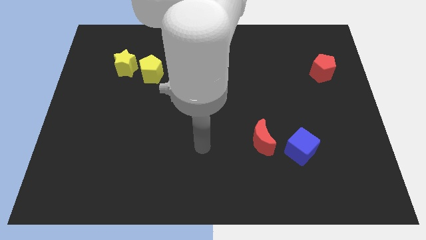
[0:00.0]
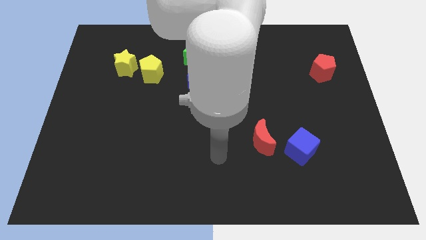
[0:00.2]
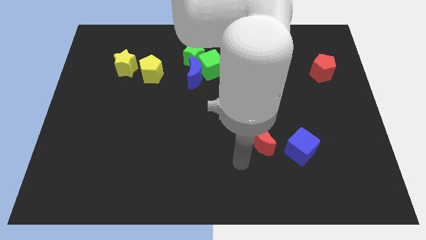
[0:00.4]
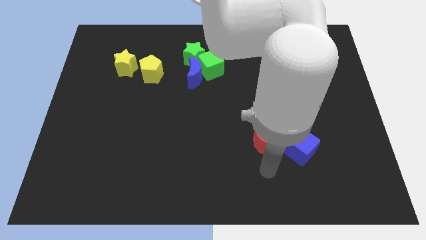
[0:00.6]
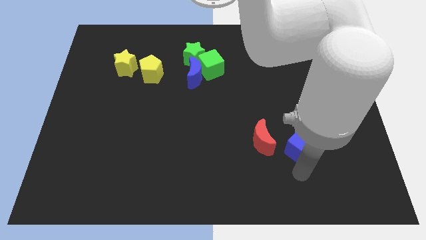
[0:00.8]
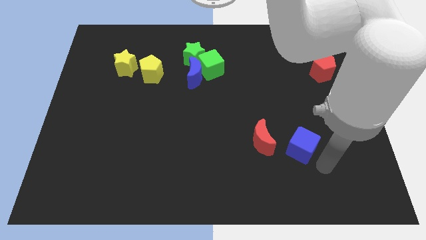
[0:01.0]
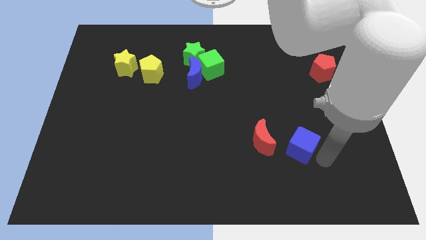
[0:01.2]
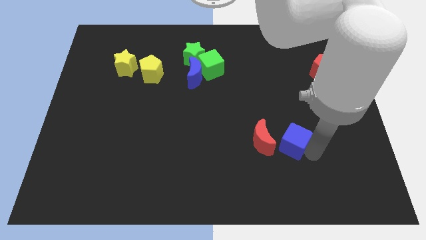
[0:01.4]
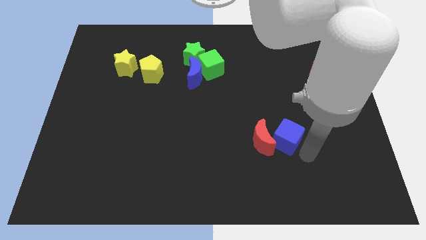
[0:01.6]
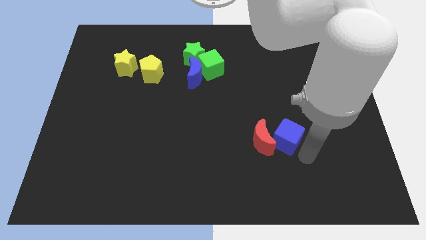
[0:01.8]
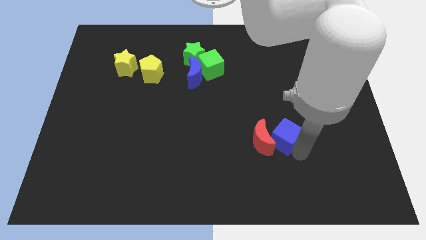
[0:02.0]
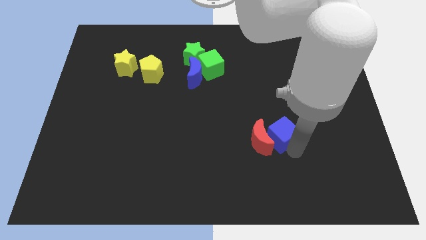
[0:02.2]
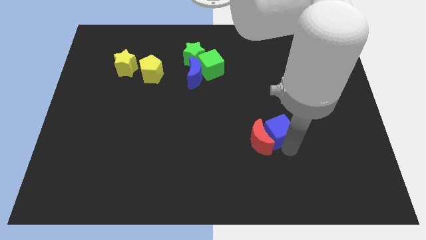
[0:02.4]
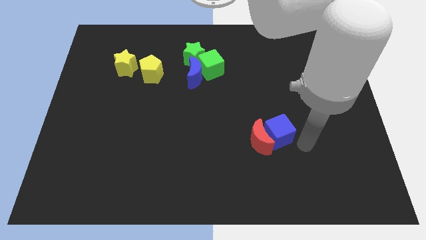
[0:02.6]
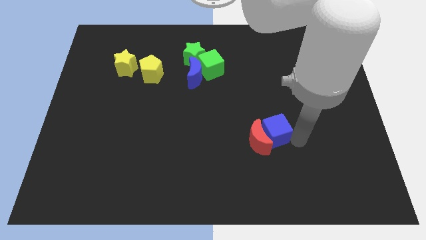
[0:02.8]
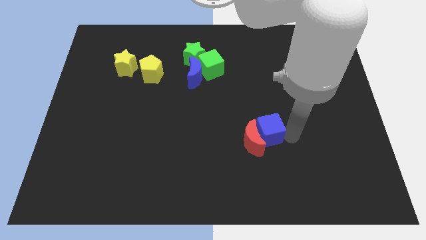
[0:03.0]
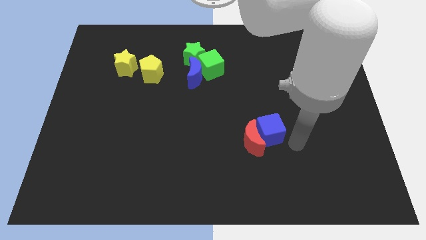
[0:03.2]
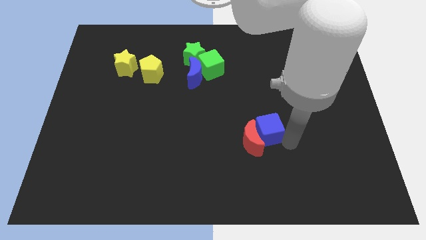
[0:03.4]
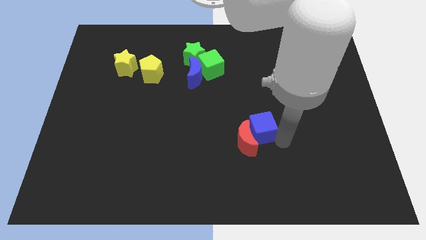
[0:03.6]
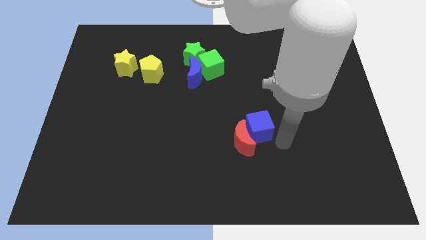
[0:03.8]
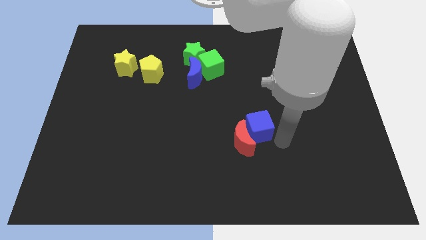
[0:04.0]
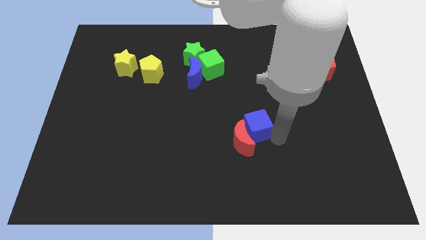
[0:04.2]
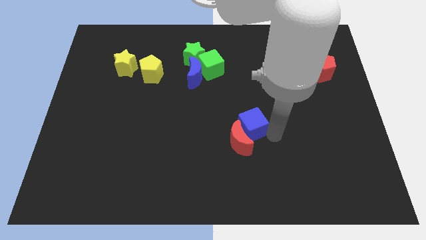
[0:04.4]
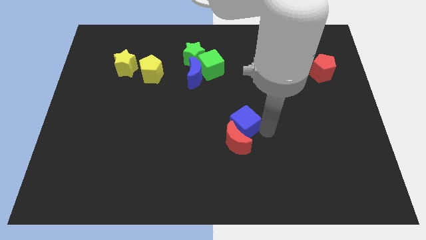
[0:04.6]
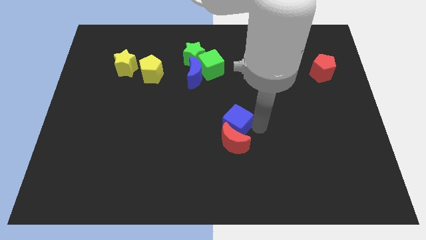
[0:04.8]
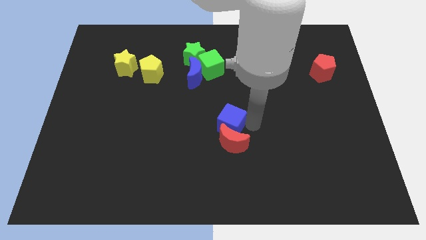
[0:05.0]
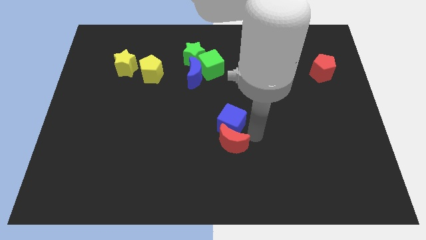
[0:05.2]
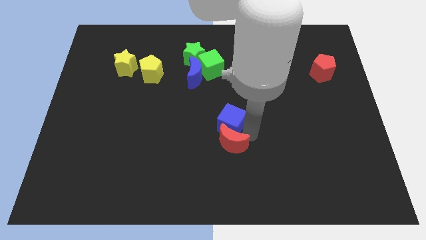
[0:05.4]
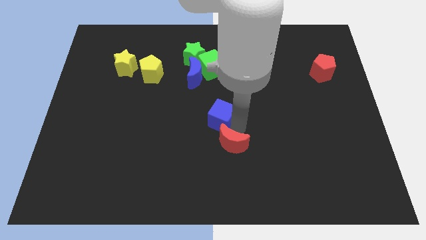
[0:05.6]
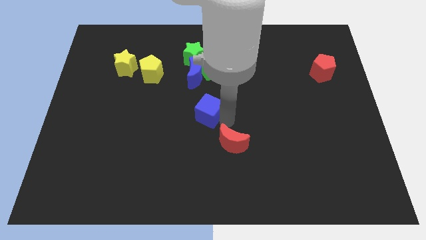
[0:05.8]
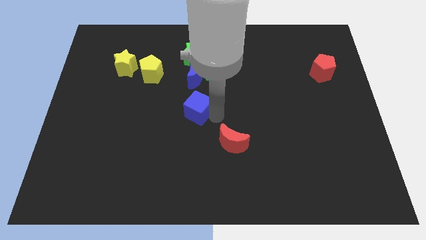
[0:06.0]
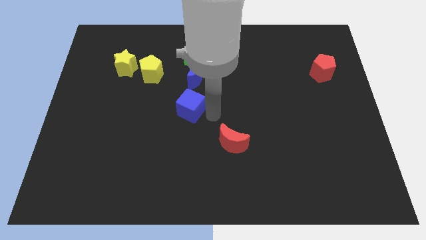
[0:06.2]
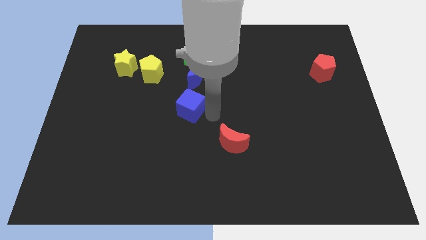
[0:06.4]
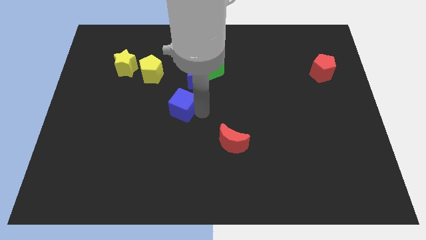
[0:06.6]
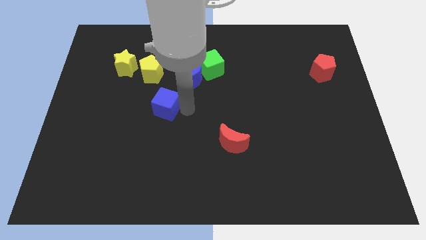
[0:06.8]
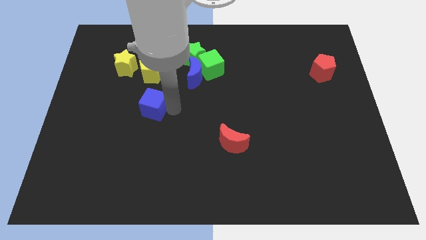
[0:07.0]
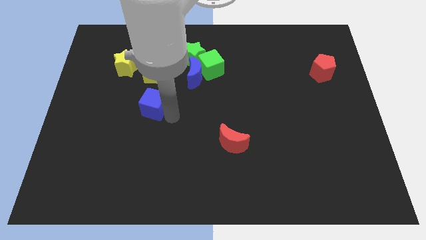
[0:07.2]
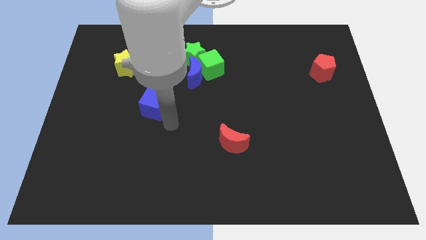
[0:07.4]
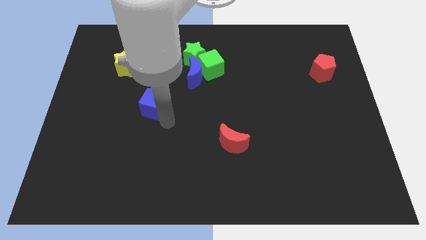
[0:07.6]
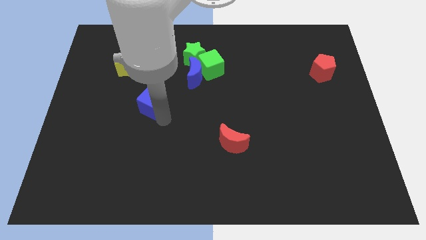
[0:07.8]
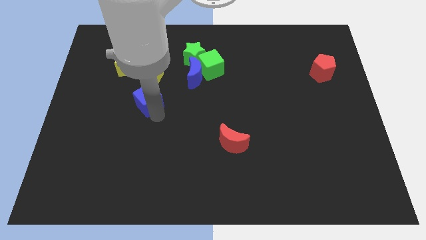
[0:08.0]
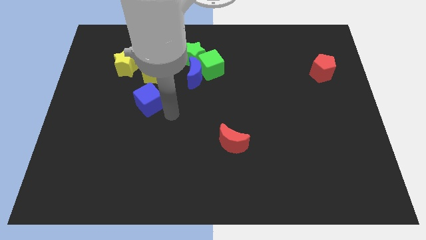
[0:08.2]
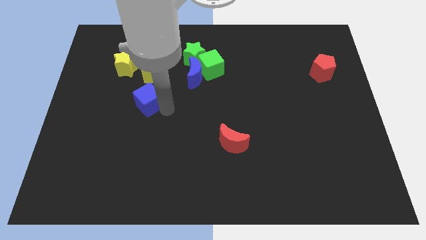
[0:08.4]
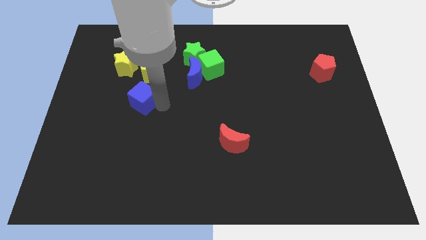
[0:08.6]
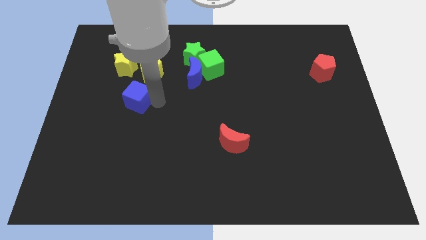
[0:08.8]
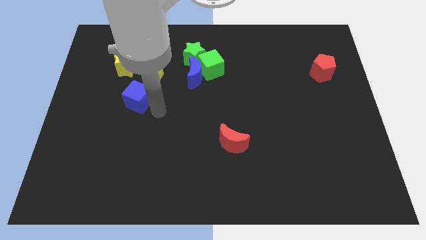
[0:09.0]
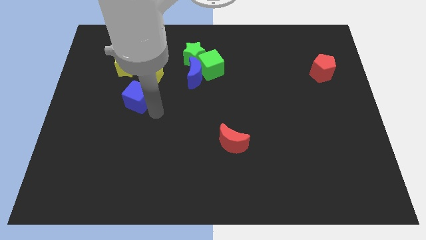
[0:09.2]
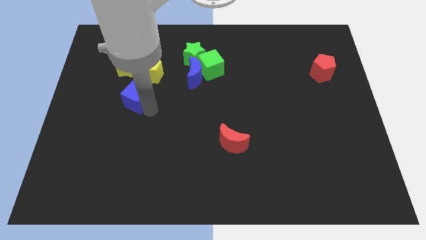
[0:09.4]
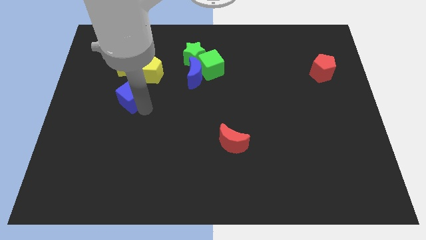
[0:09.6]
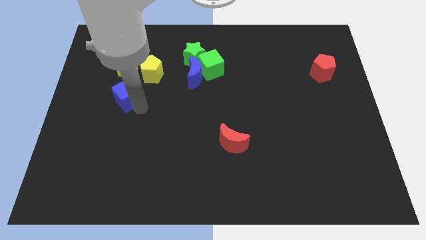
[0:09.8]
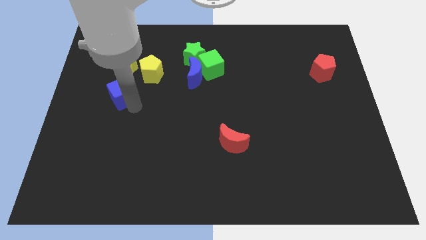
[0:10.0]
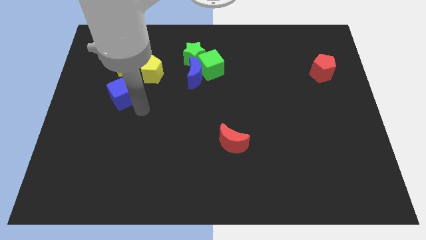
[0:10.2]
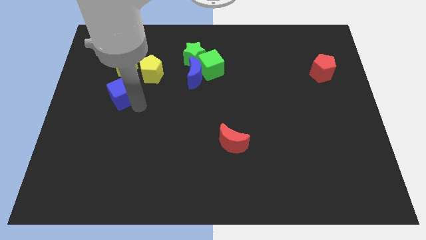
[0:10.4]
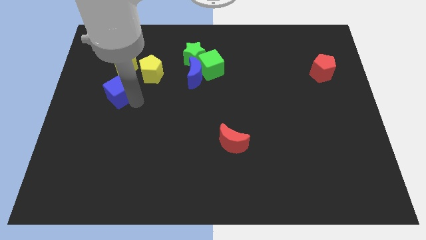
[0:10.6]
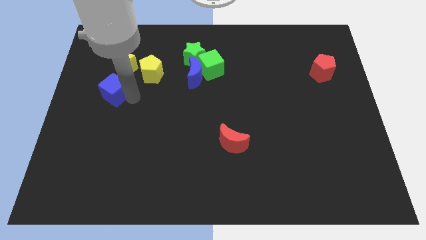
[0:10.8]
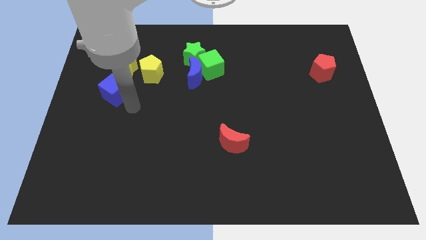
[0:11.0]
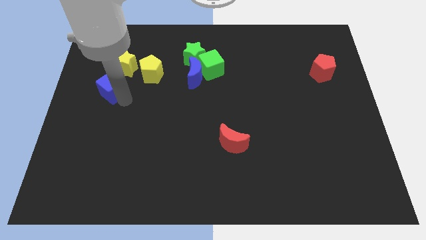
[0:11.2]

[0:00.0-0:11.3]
slide the blue cube to the bottom left of the yellow star

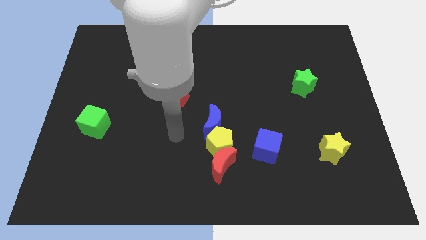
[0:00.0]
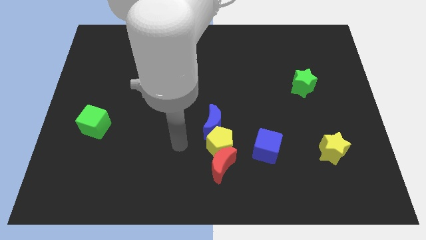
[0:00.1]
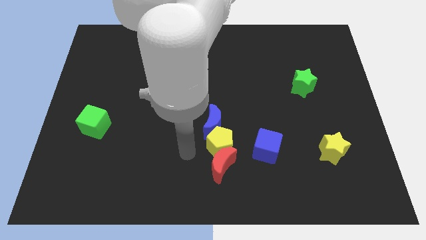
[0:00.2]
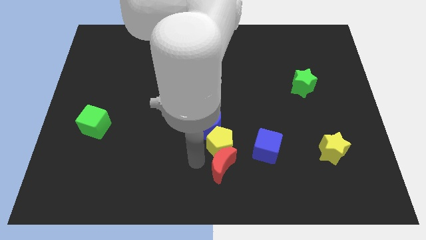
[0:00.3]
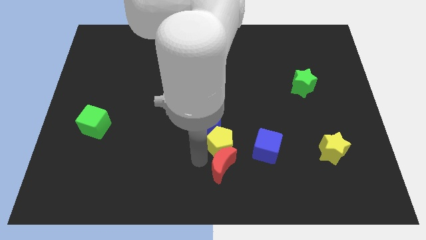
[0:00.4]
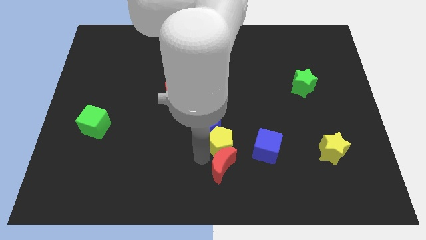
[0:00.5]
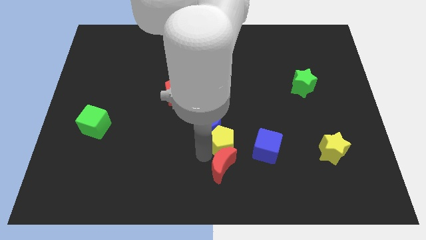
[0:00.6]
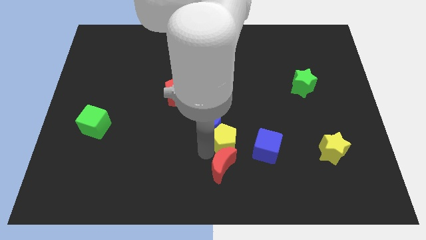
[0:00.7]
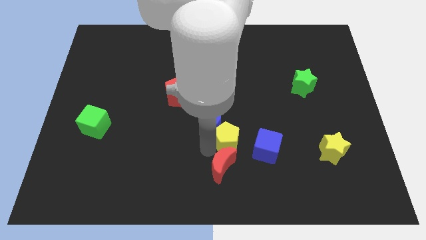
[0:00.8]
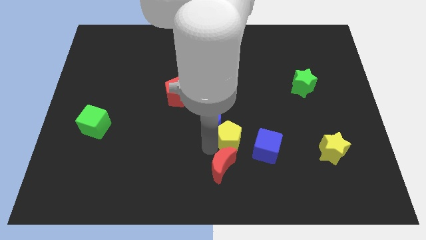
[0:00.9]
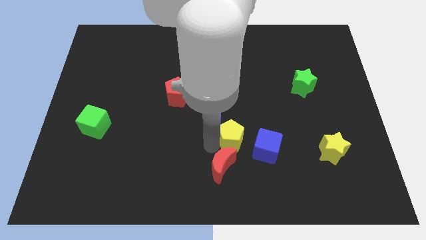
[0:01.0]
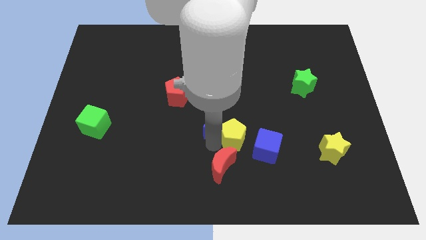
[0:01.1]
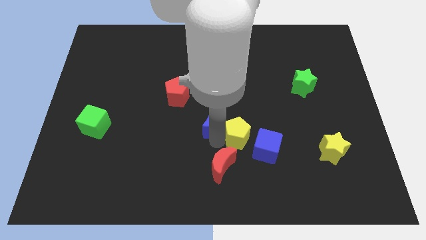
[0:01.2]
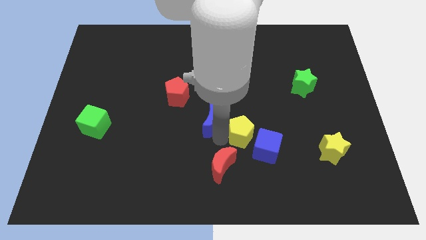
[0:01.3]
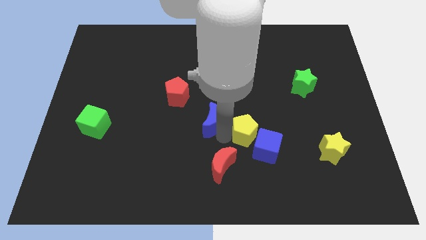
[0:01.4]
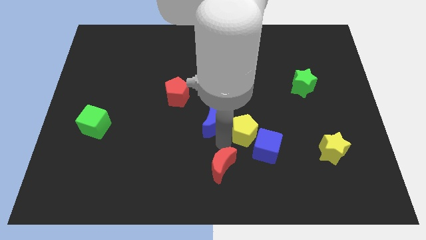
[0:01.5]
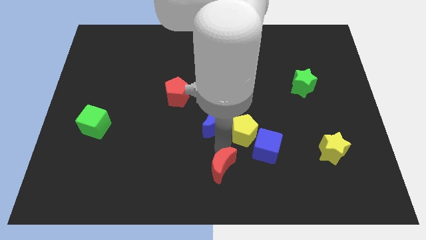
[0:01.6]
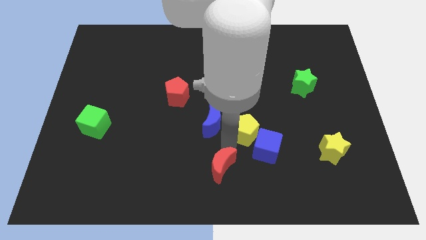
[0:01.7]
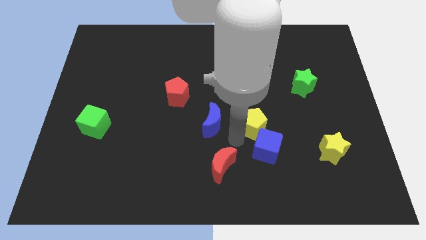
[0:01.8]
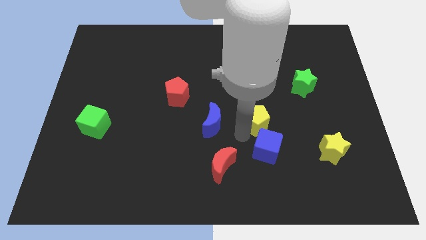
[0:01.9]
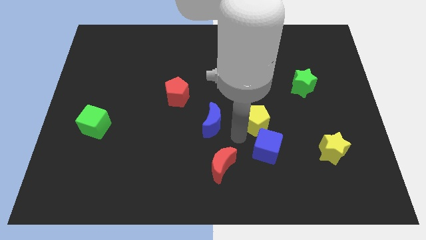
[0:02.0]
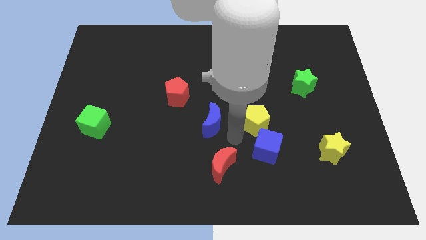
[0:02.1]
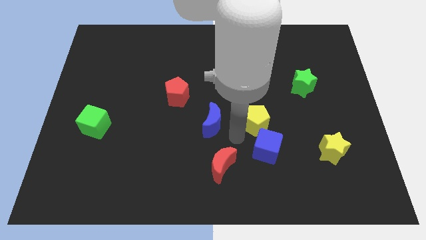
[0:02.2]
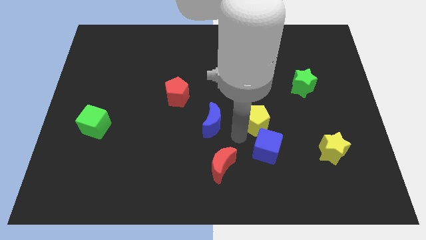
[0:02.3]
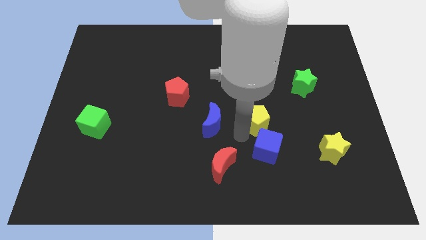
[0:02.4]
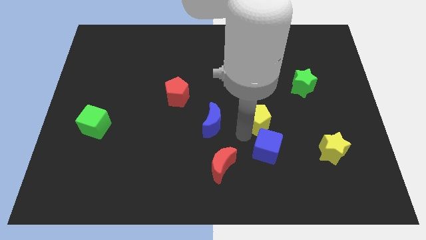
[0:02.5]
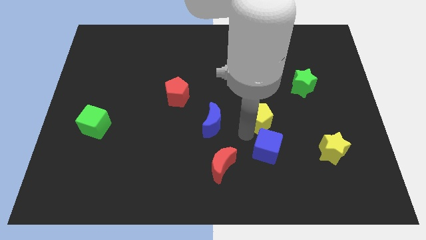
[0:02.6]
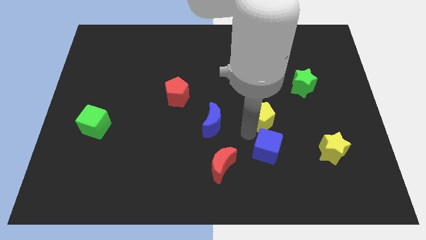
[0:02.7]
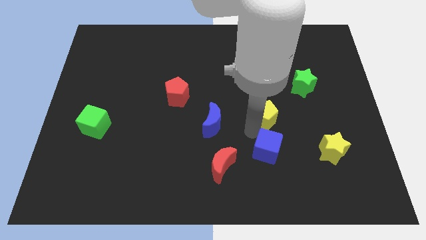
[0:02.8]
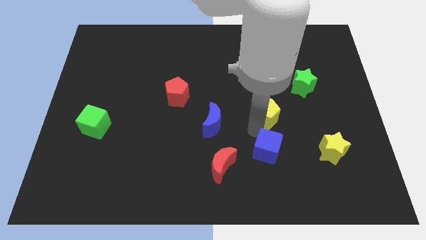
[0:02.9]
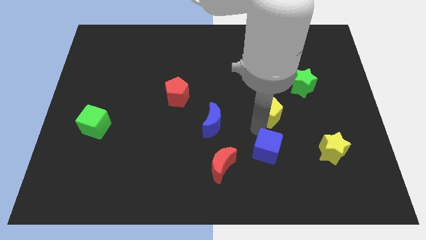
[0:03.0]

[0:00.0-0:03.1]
put the yellow pentagon to the bottom left of the green star
